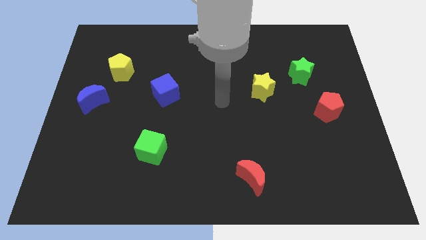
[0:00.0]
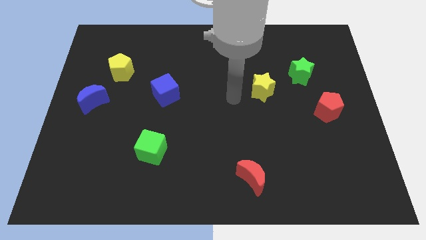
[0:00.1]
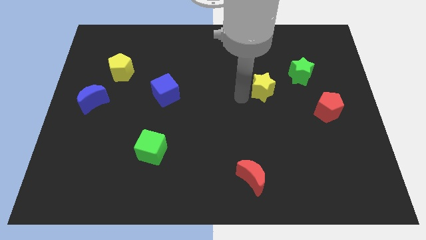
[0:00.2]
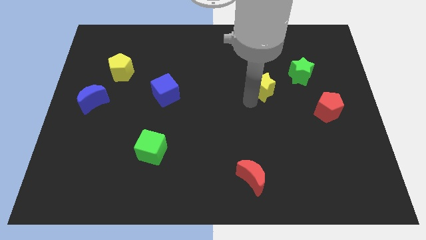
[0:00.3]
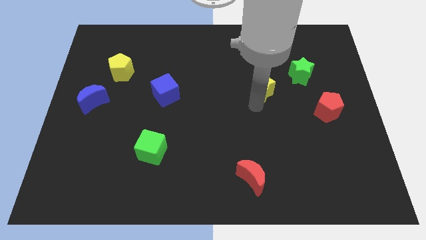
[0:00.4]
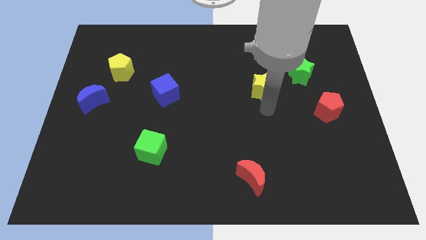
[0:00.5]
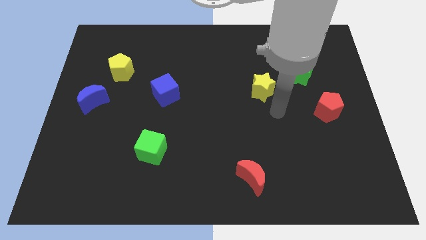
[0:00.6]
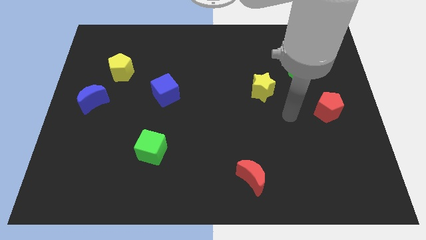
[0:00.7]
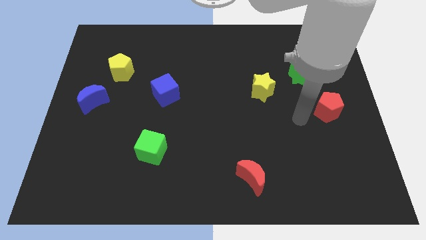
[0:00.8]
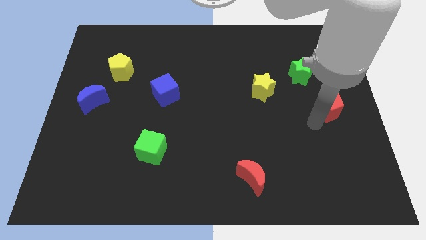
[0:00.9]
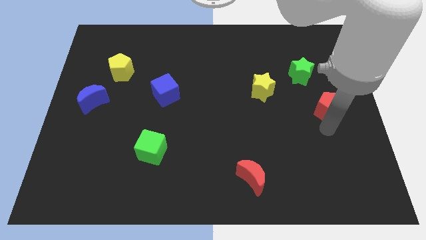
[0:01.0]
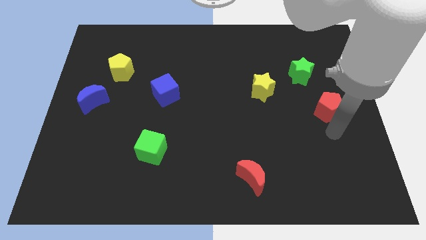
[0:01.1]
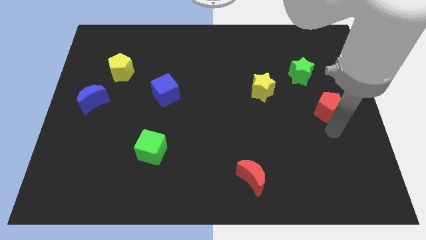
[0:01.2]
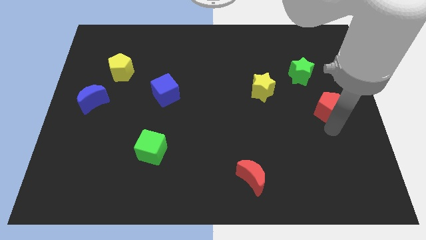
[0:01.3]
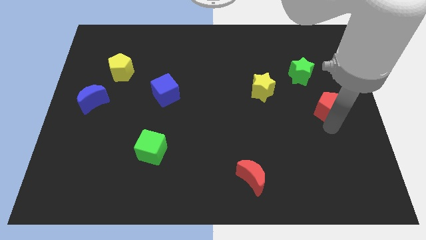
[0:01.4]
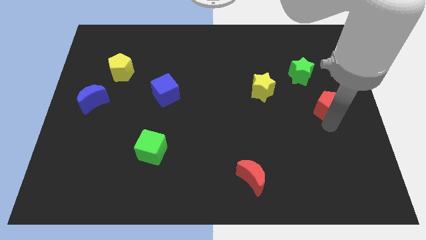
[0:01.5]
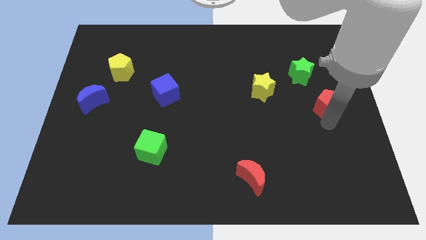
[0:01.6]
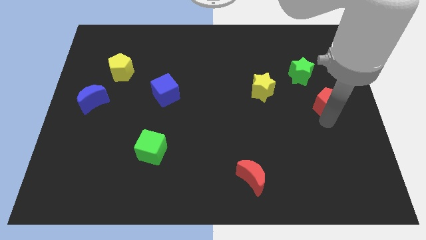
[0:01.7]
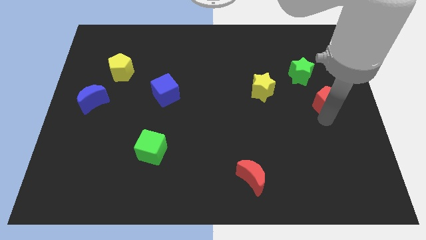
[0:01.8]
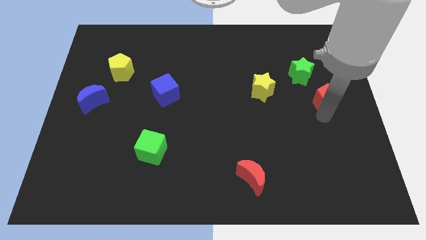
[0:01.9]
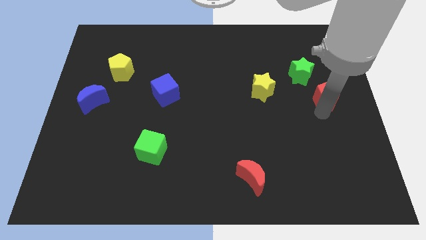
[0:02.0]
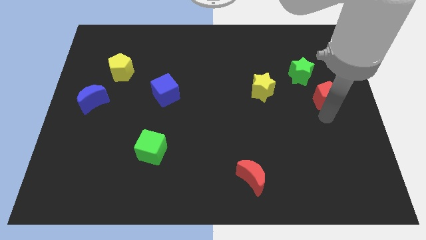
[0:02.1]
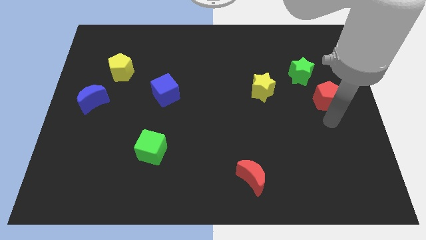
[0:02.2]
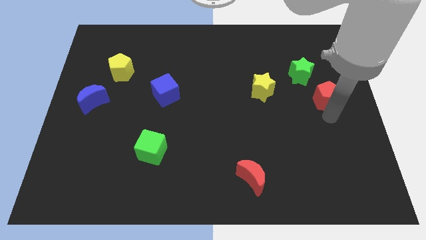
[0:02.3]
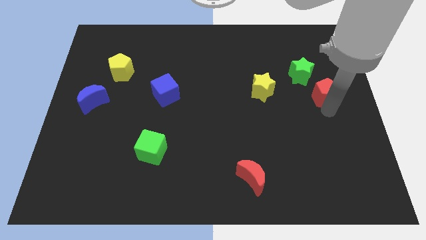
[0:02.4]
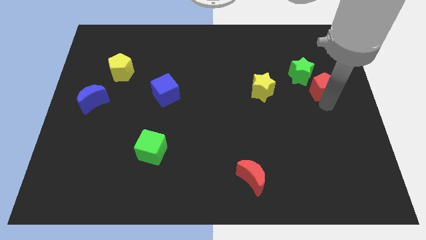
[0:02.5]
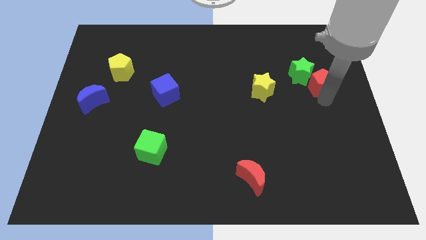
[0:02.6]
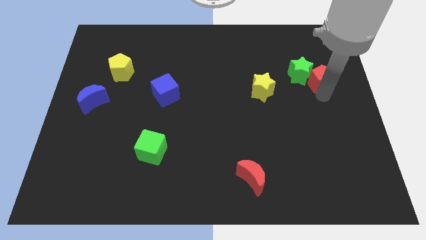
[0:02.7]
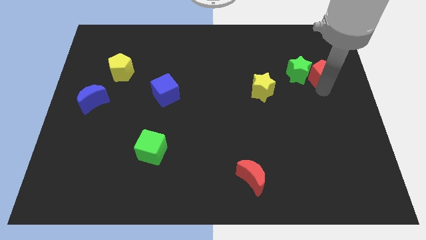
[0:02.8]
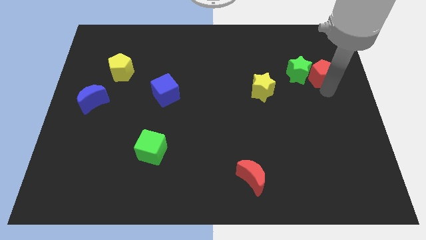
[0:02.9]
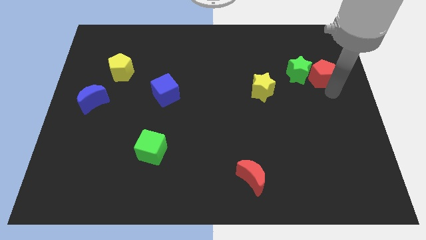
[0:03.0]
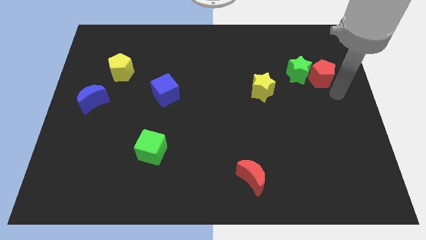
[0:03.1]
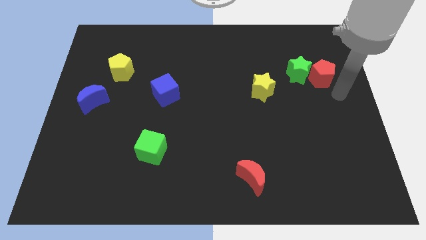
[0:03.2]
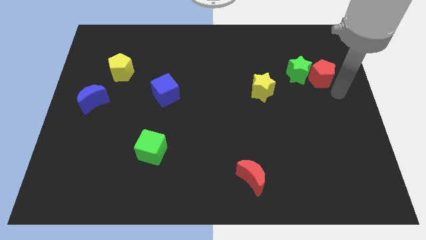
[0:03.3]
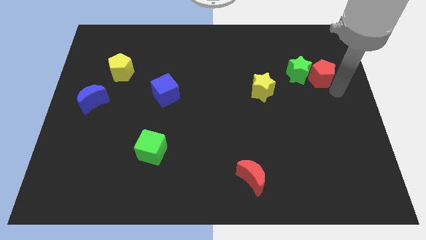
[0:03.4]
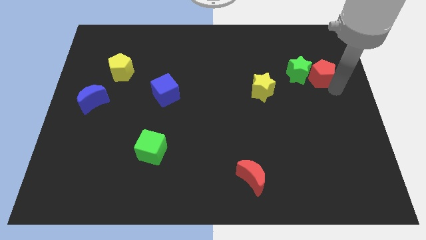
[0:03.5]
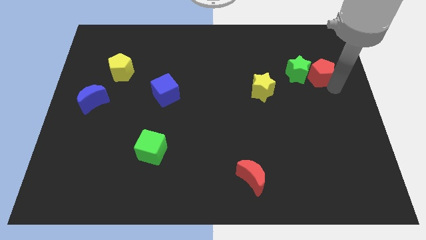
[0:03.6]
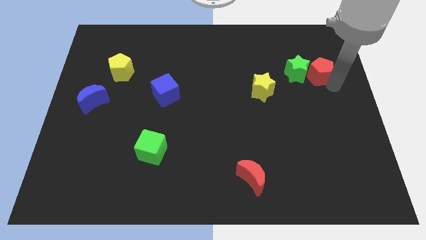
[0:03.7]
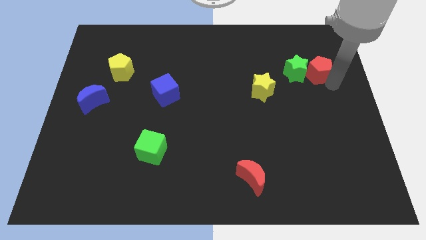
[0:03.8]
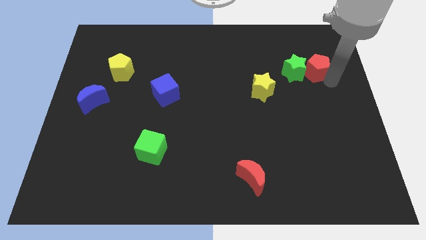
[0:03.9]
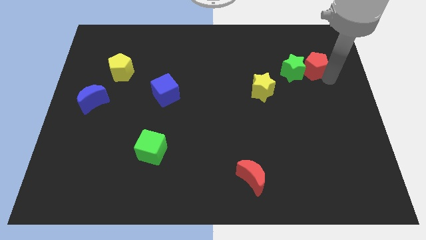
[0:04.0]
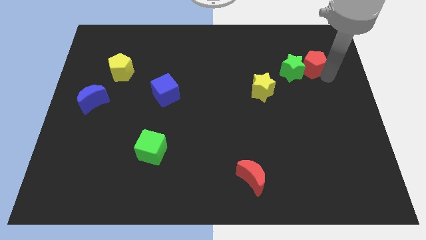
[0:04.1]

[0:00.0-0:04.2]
slide the red pentagon somewhat upwards and left diagonally

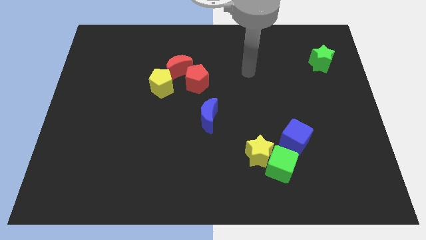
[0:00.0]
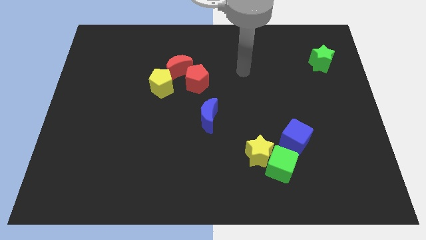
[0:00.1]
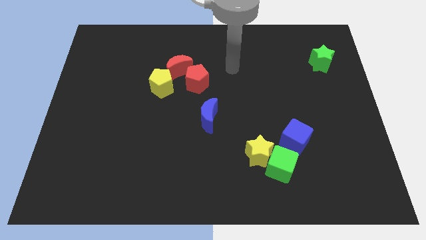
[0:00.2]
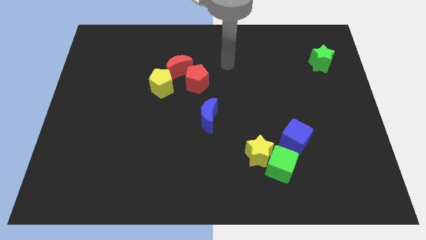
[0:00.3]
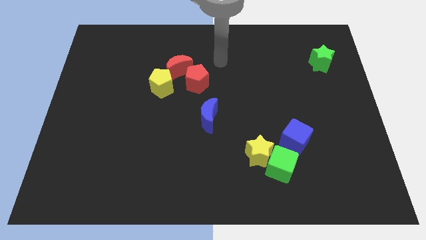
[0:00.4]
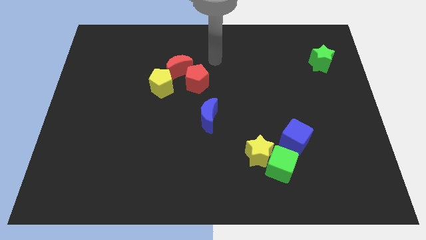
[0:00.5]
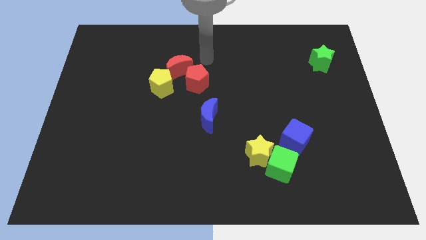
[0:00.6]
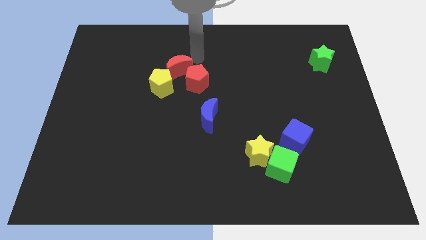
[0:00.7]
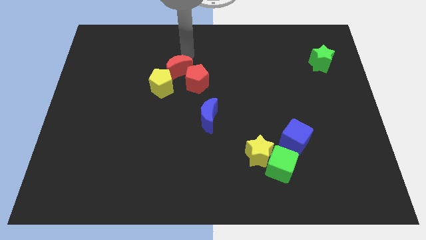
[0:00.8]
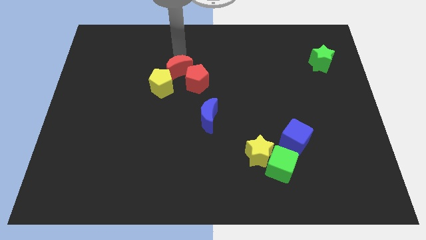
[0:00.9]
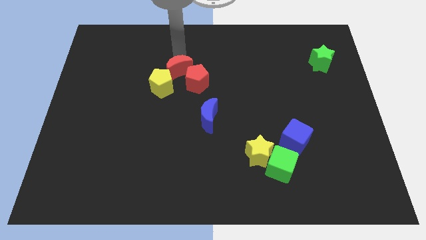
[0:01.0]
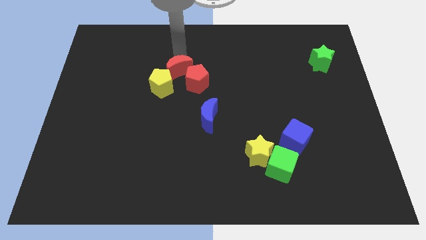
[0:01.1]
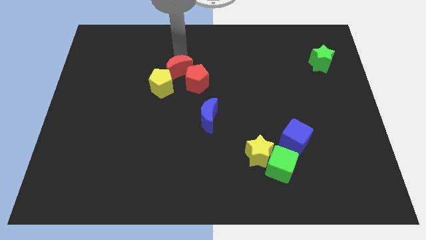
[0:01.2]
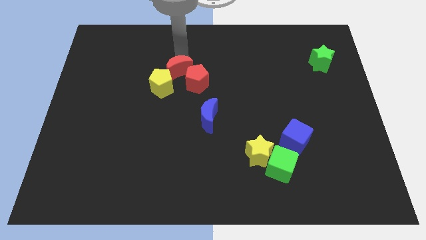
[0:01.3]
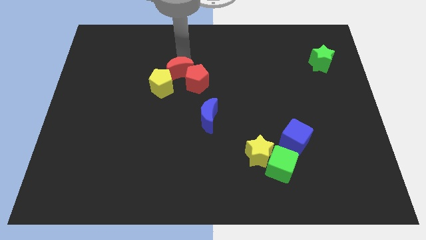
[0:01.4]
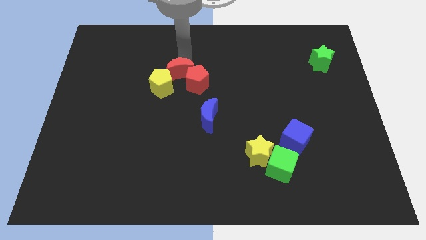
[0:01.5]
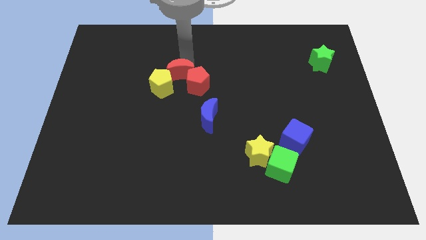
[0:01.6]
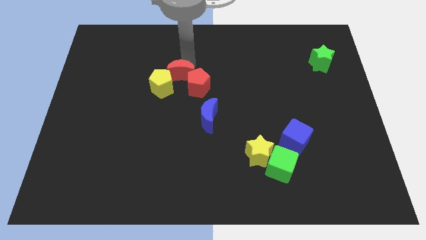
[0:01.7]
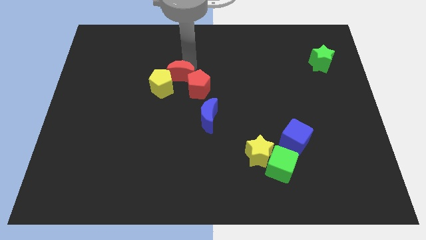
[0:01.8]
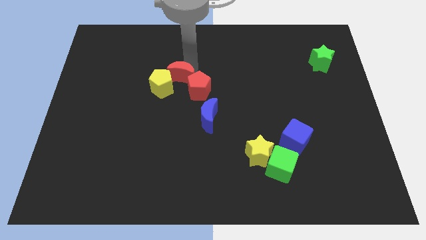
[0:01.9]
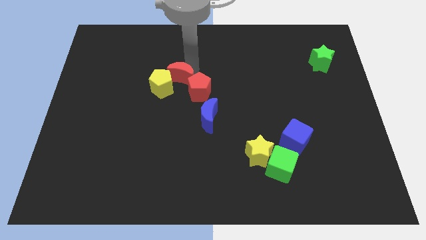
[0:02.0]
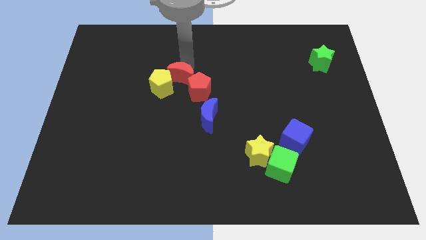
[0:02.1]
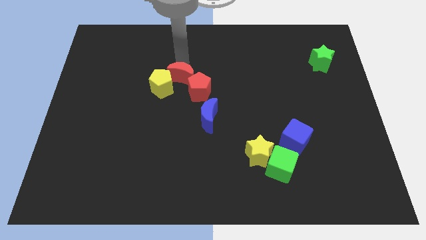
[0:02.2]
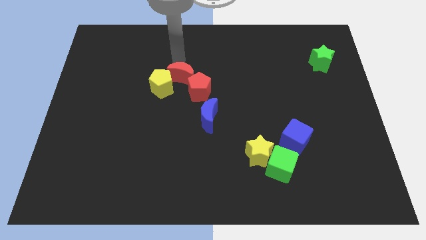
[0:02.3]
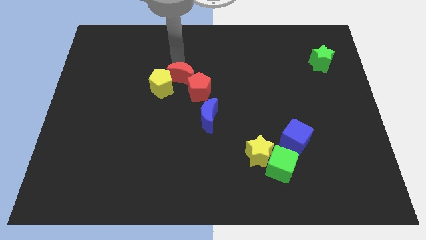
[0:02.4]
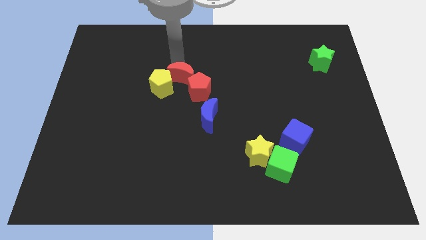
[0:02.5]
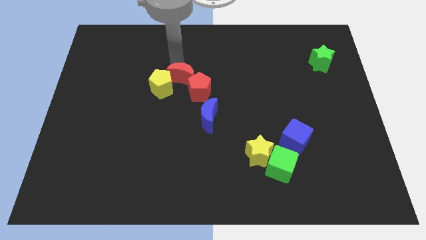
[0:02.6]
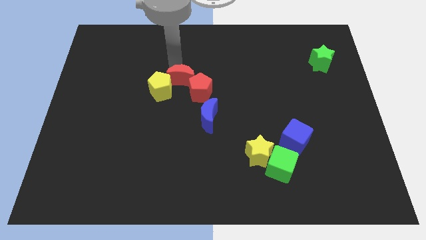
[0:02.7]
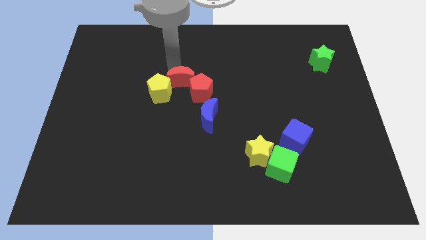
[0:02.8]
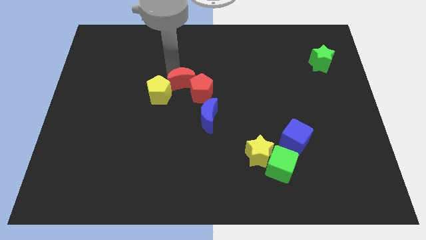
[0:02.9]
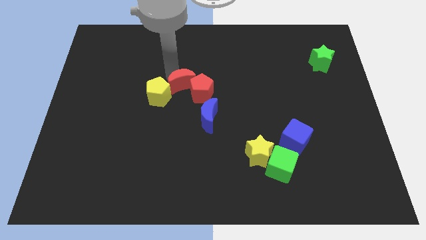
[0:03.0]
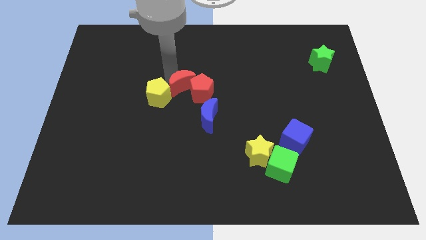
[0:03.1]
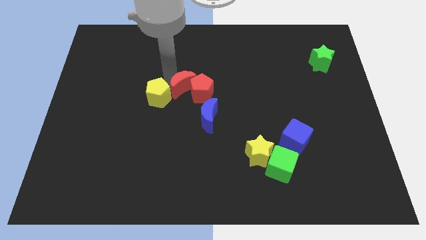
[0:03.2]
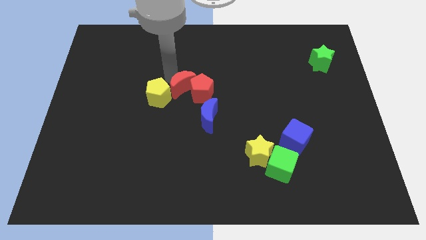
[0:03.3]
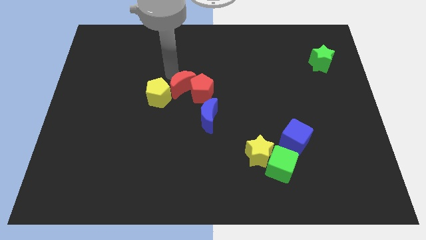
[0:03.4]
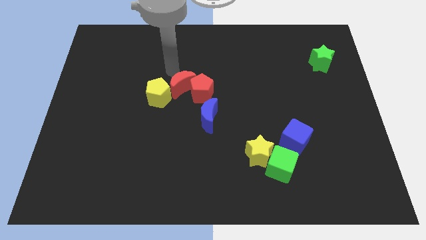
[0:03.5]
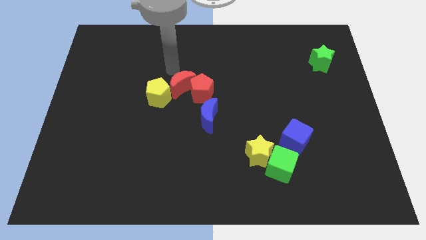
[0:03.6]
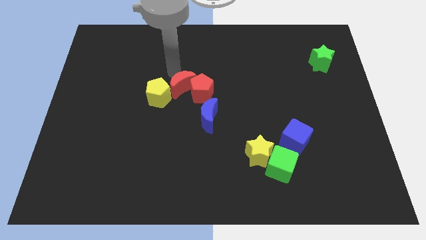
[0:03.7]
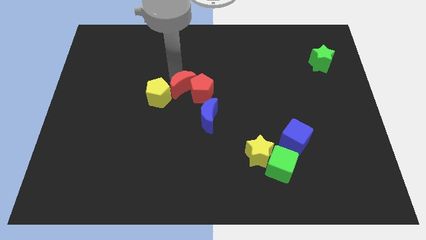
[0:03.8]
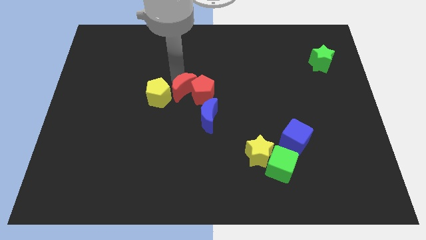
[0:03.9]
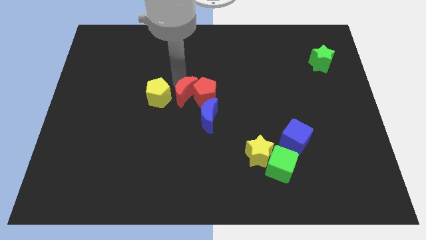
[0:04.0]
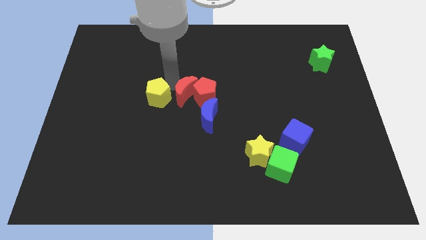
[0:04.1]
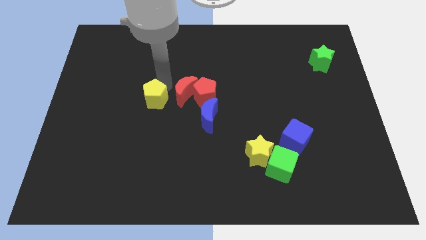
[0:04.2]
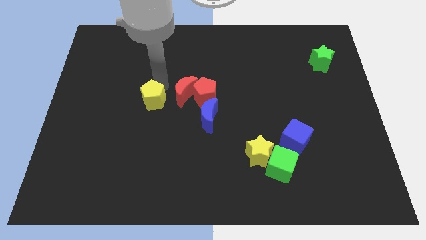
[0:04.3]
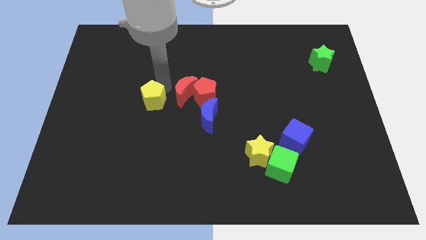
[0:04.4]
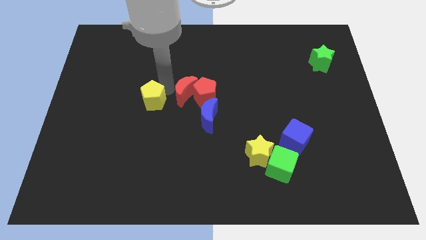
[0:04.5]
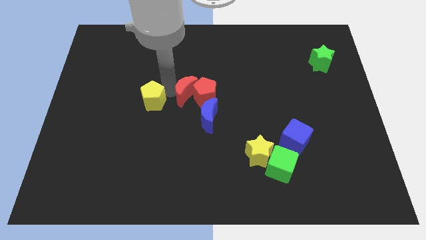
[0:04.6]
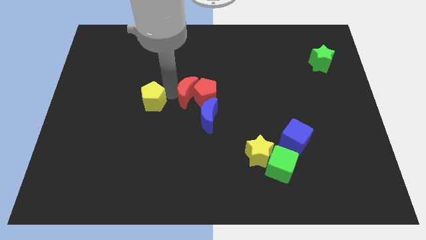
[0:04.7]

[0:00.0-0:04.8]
push the red moon a bit diagonally down and right
